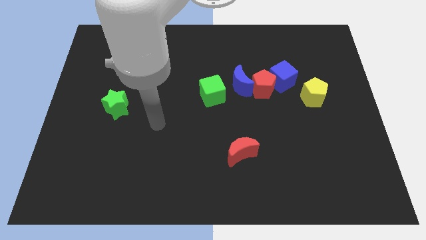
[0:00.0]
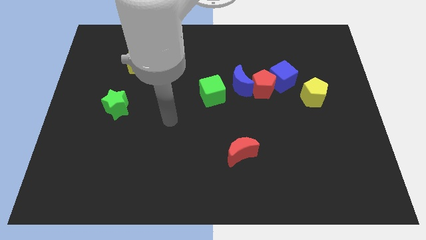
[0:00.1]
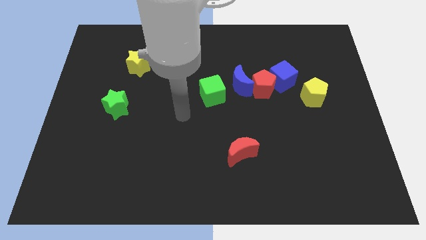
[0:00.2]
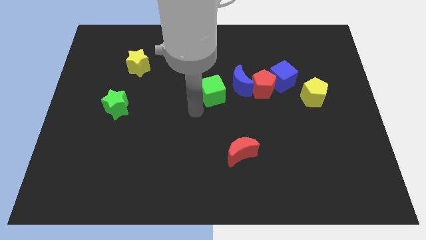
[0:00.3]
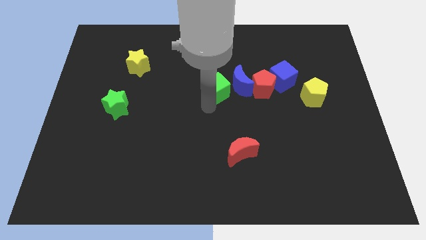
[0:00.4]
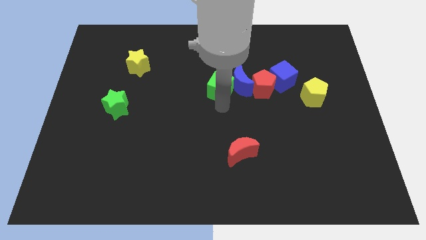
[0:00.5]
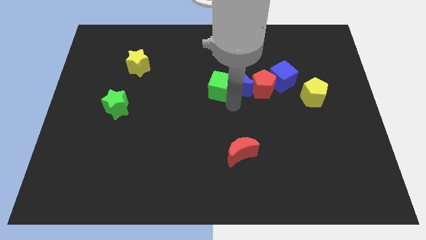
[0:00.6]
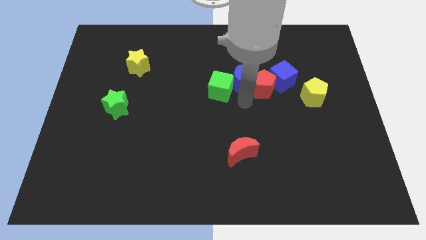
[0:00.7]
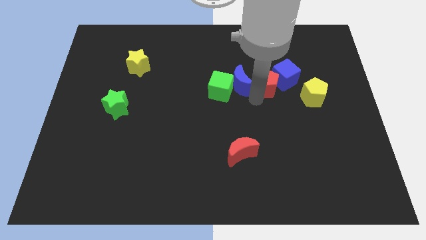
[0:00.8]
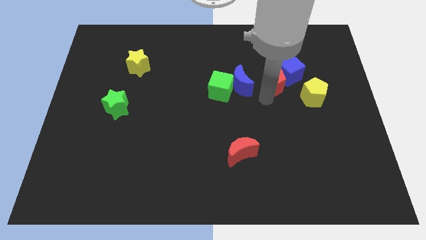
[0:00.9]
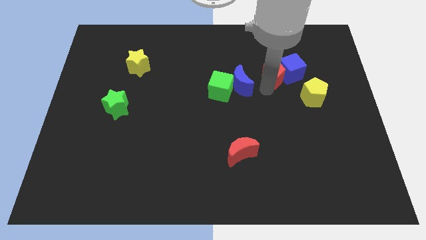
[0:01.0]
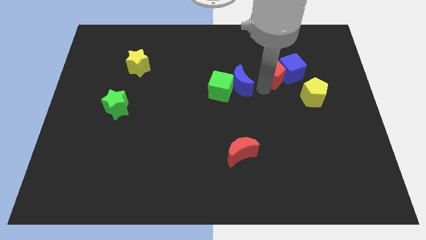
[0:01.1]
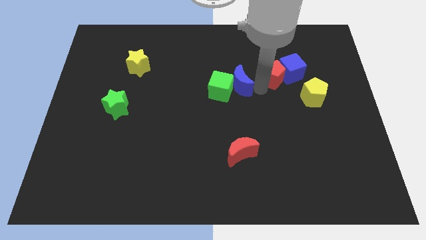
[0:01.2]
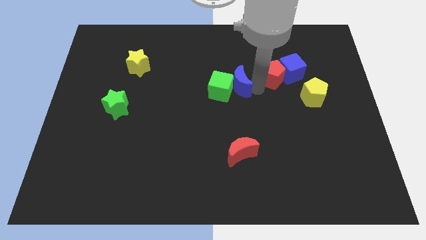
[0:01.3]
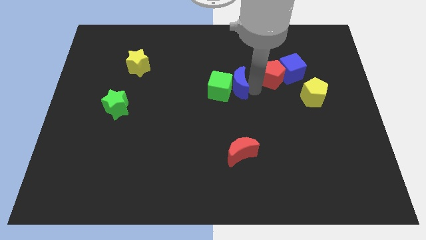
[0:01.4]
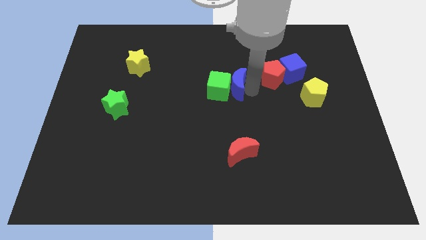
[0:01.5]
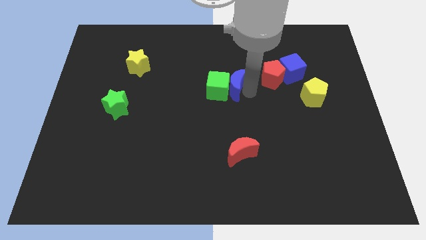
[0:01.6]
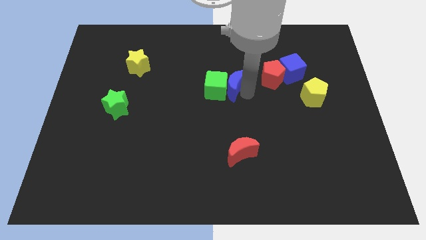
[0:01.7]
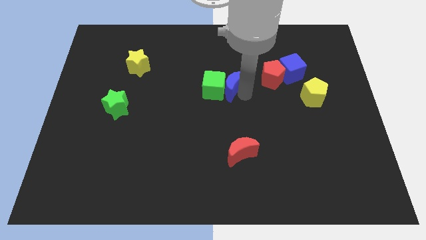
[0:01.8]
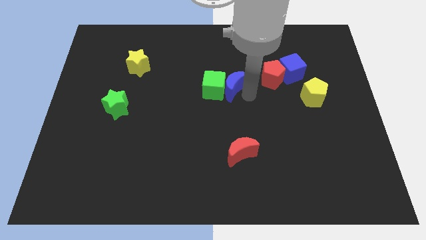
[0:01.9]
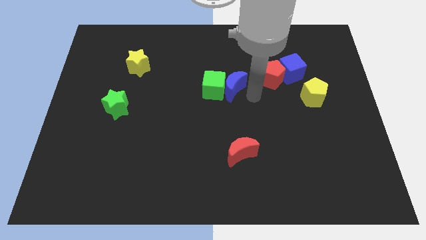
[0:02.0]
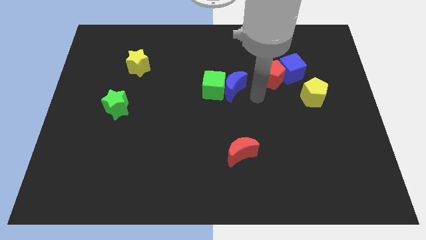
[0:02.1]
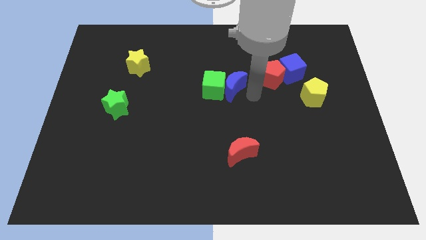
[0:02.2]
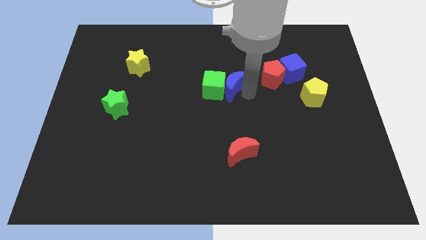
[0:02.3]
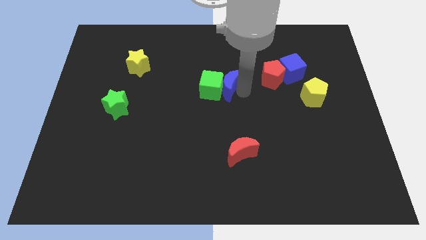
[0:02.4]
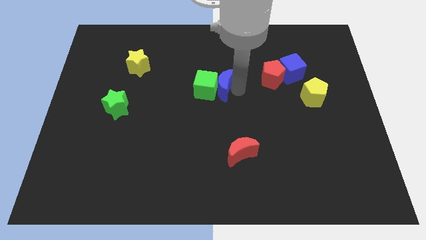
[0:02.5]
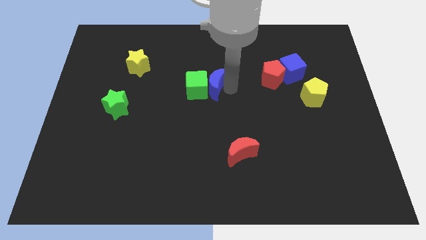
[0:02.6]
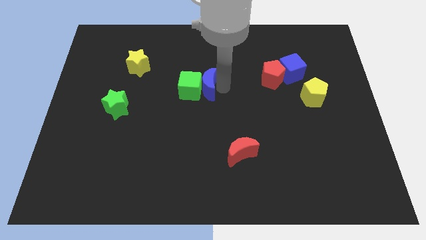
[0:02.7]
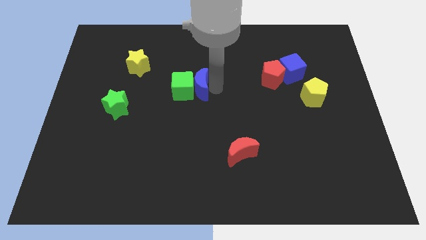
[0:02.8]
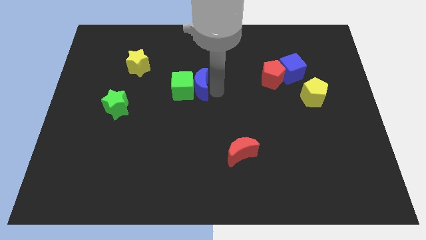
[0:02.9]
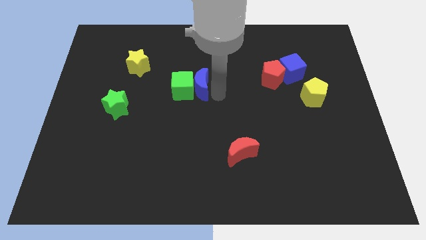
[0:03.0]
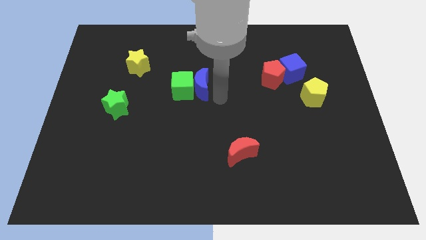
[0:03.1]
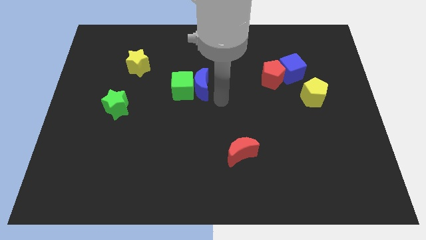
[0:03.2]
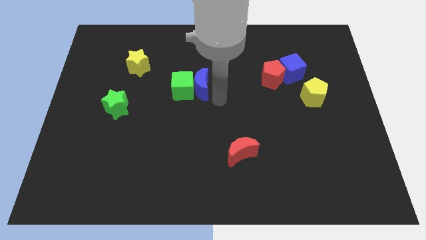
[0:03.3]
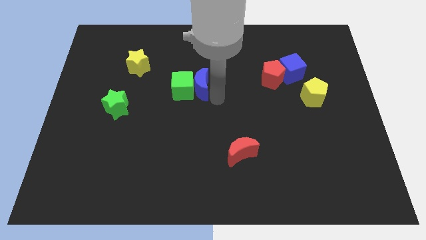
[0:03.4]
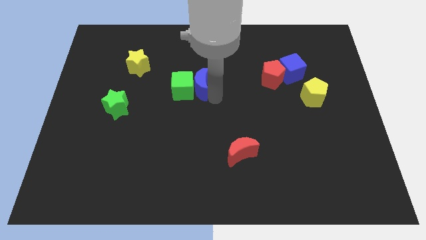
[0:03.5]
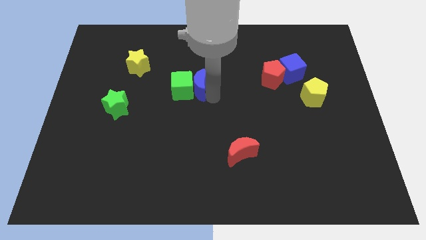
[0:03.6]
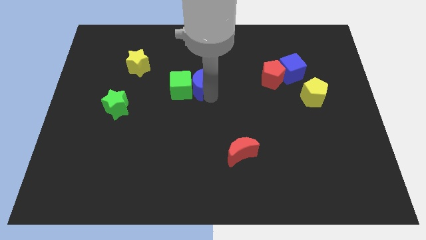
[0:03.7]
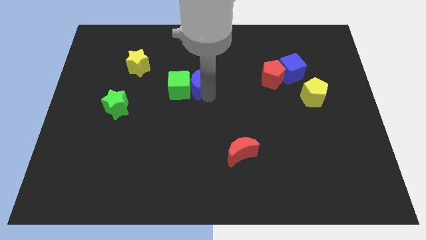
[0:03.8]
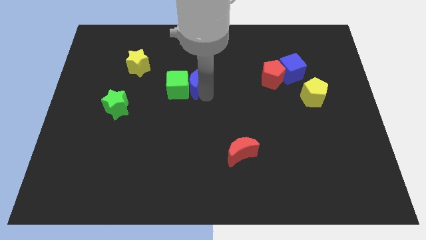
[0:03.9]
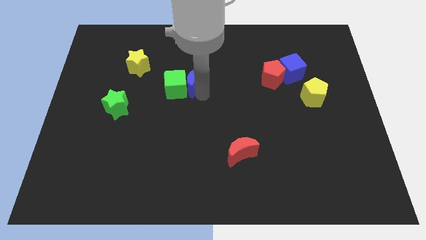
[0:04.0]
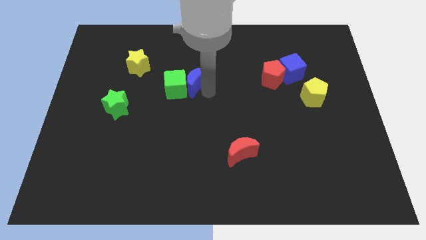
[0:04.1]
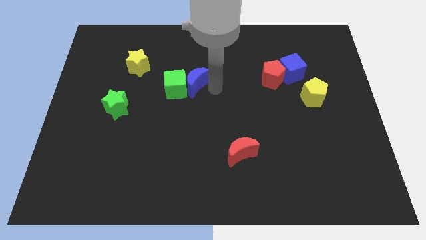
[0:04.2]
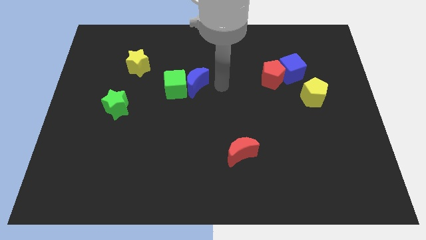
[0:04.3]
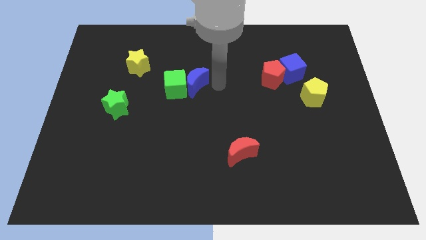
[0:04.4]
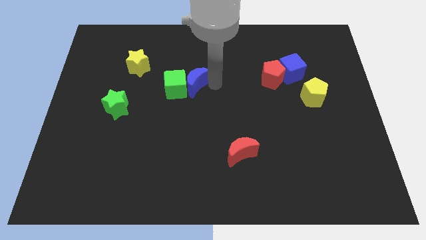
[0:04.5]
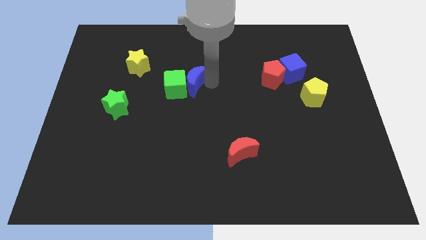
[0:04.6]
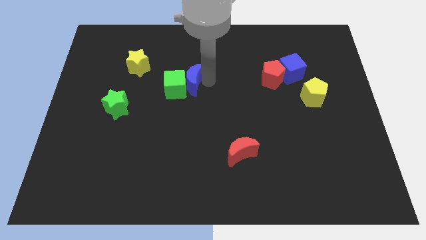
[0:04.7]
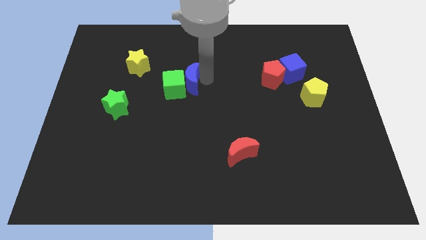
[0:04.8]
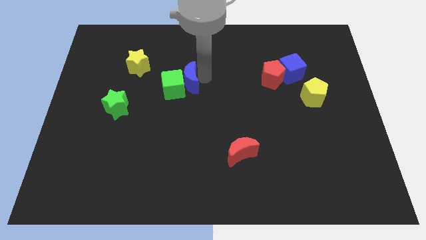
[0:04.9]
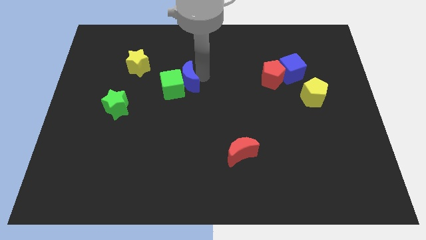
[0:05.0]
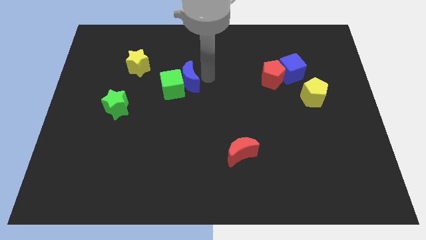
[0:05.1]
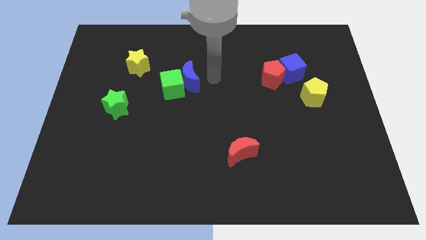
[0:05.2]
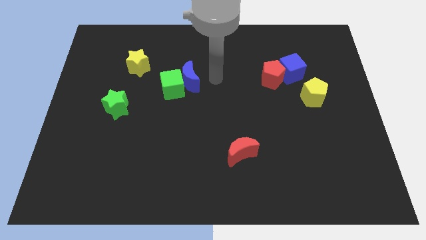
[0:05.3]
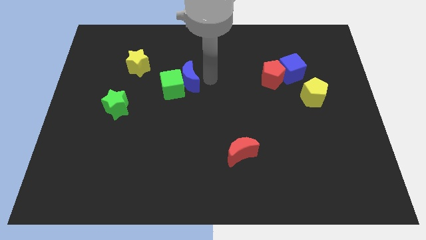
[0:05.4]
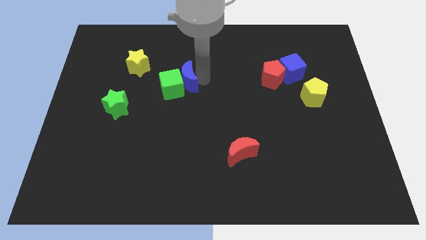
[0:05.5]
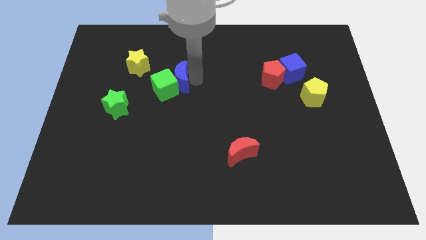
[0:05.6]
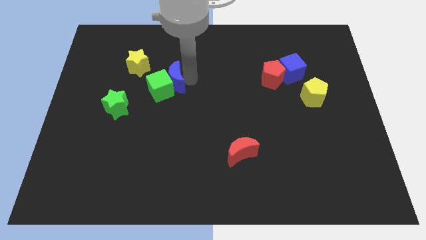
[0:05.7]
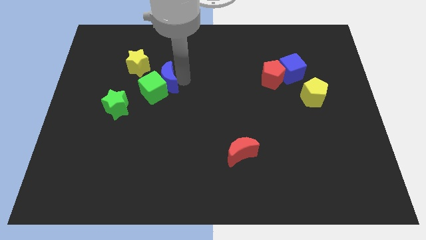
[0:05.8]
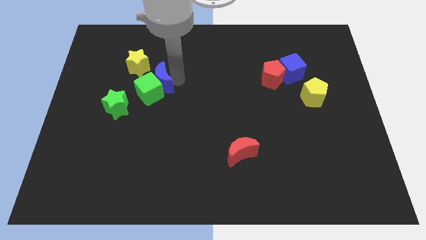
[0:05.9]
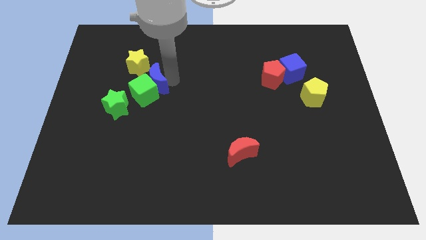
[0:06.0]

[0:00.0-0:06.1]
move the blue moon to the left

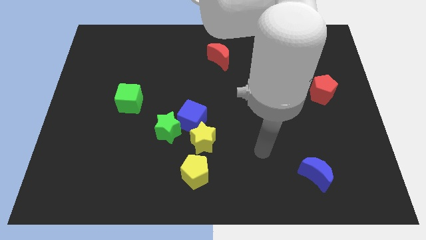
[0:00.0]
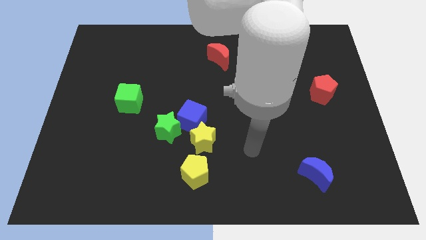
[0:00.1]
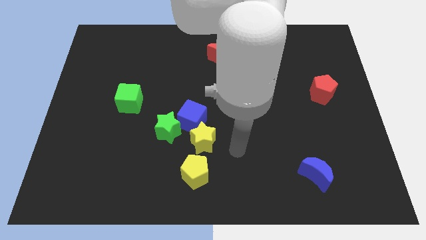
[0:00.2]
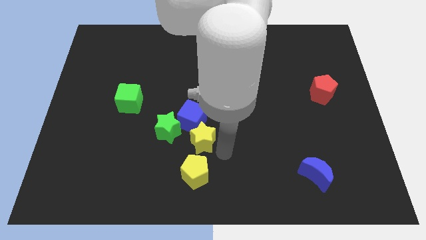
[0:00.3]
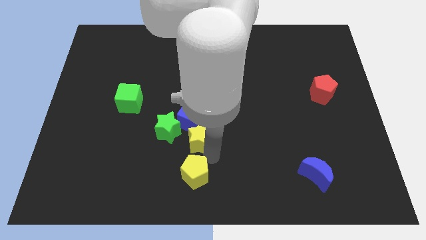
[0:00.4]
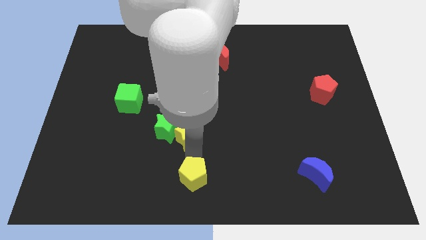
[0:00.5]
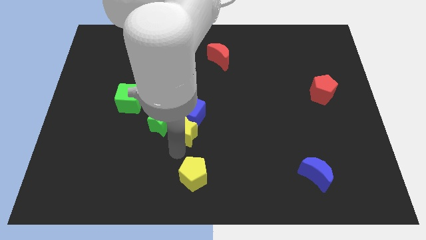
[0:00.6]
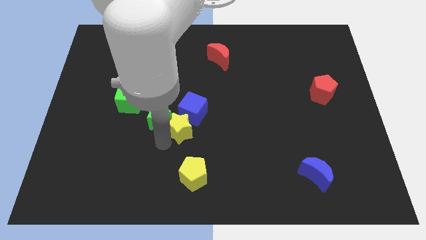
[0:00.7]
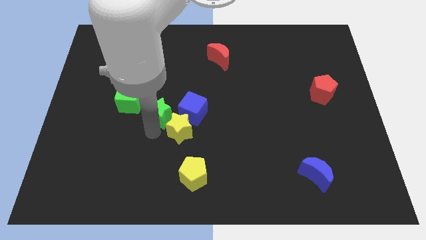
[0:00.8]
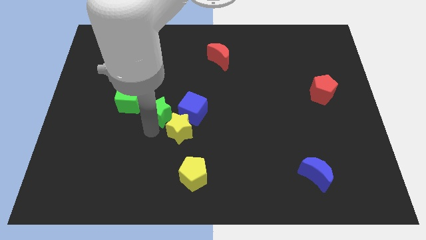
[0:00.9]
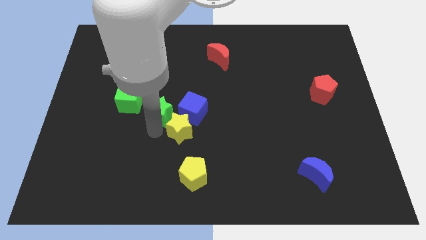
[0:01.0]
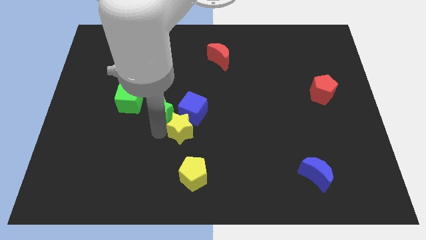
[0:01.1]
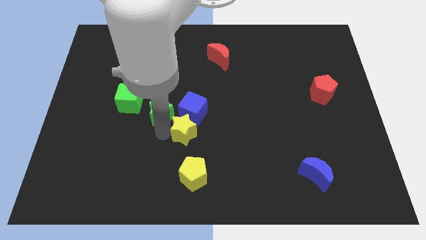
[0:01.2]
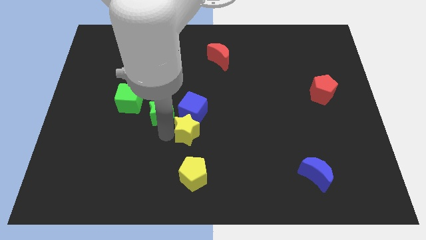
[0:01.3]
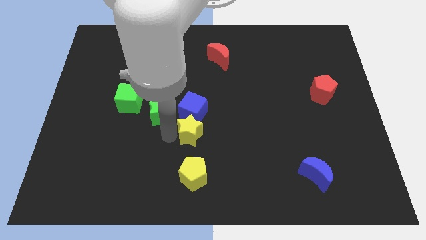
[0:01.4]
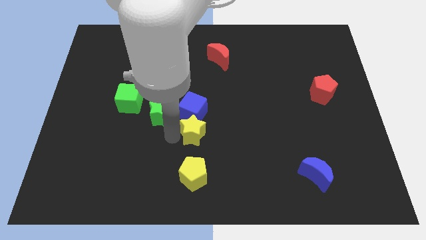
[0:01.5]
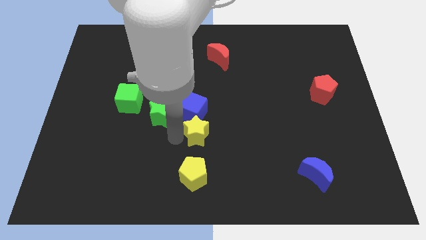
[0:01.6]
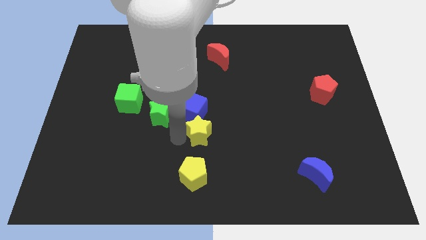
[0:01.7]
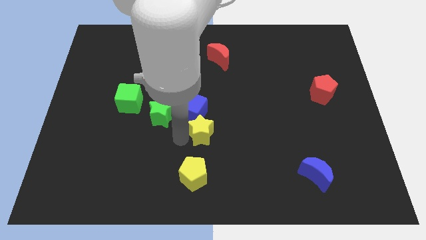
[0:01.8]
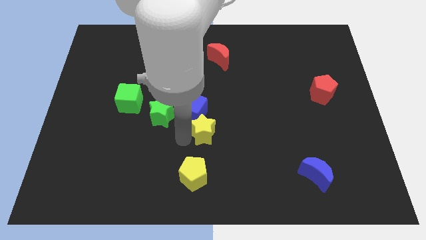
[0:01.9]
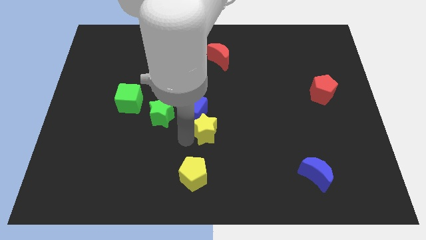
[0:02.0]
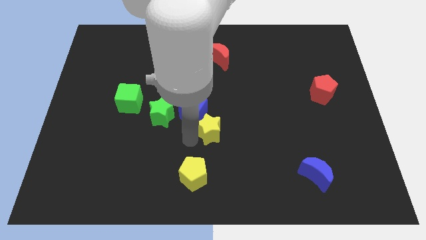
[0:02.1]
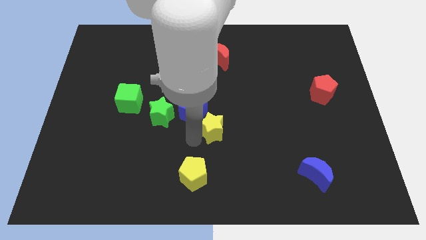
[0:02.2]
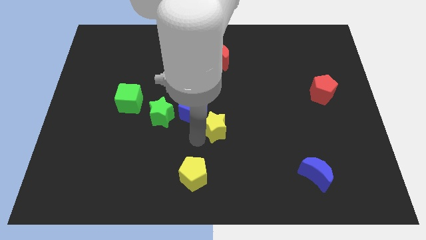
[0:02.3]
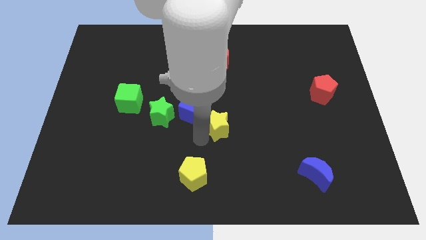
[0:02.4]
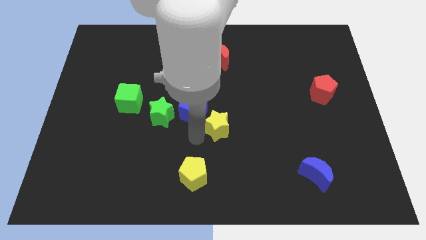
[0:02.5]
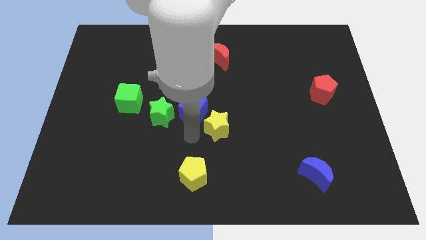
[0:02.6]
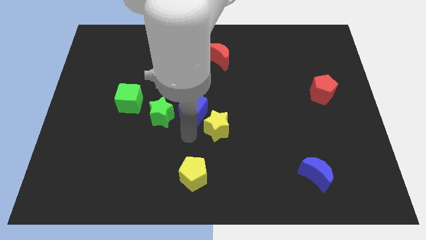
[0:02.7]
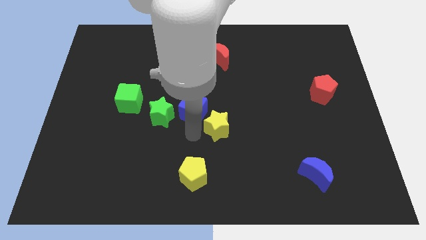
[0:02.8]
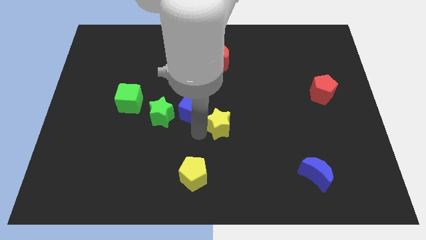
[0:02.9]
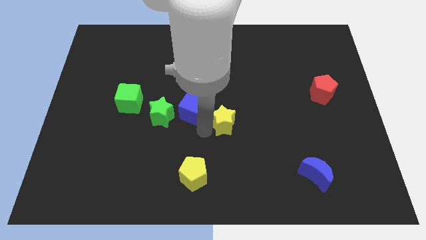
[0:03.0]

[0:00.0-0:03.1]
push the yellow star slightly diagonally upwards and to the right
